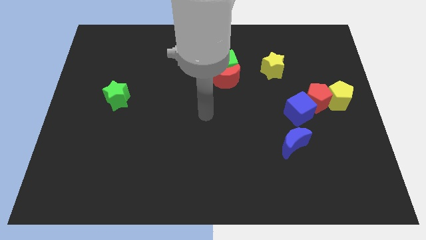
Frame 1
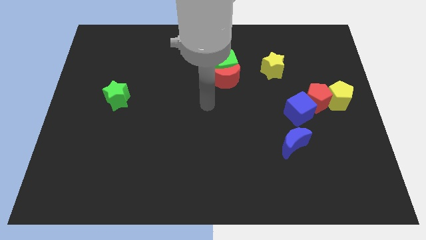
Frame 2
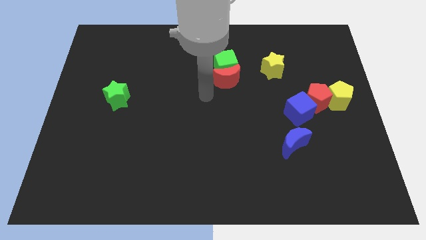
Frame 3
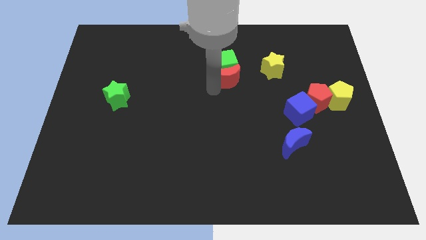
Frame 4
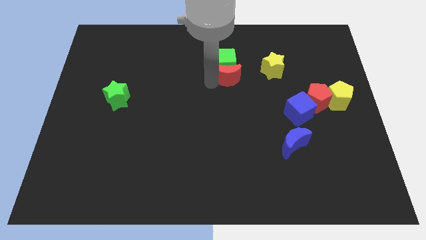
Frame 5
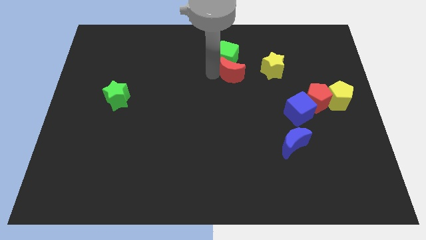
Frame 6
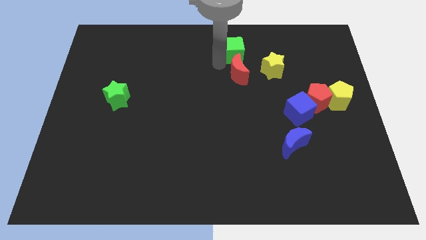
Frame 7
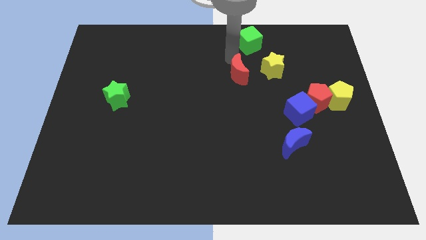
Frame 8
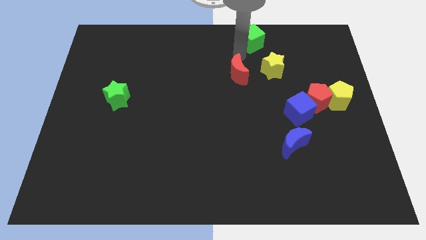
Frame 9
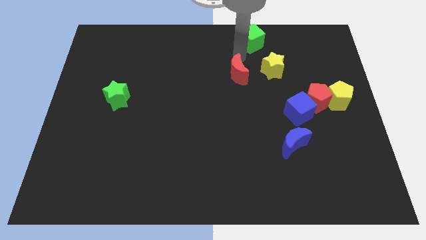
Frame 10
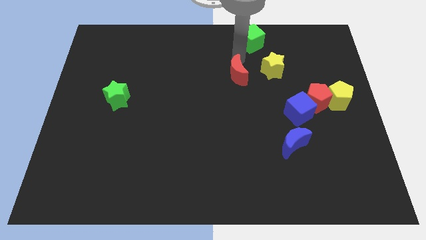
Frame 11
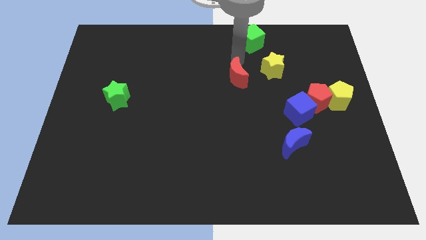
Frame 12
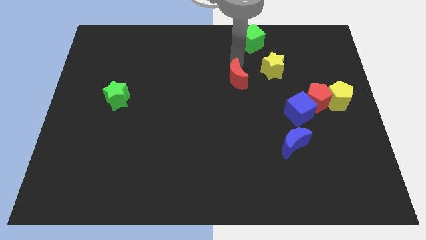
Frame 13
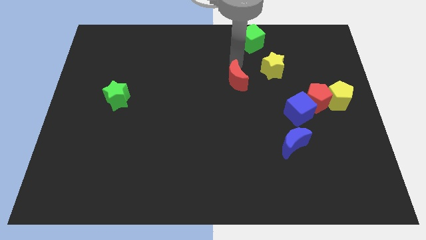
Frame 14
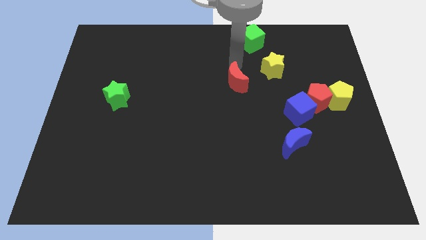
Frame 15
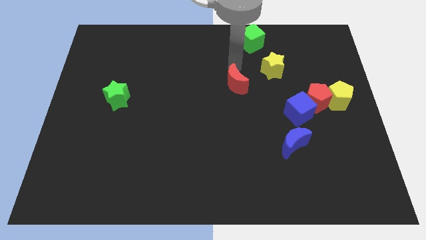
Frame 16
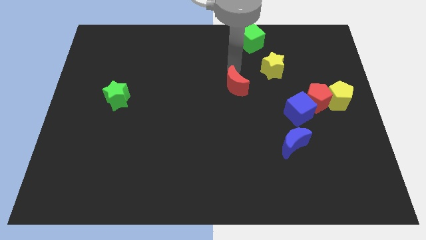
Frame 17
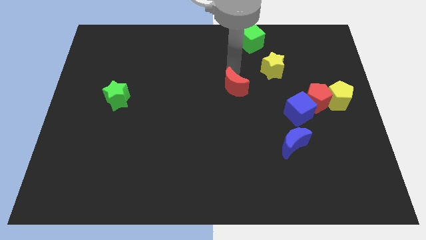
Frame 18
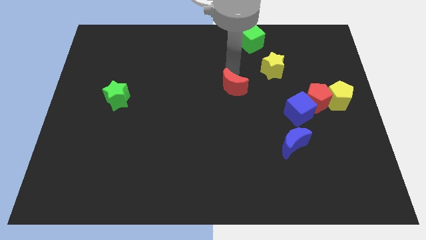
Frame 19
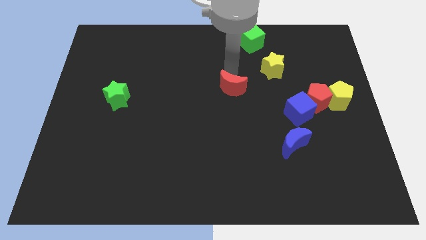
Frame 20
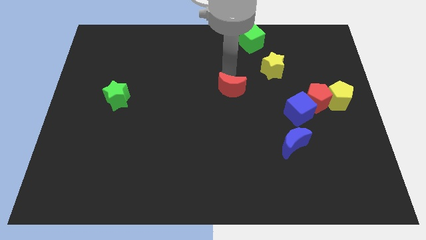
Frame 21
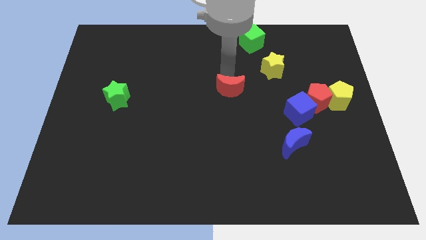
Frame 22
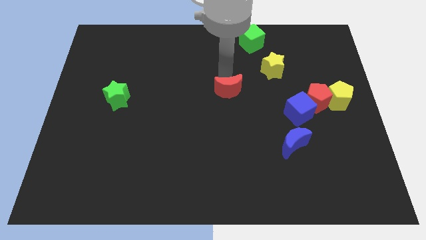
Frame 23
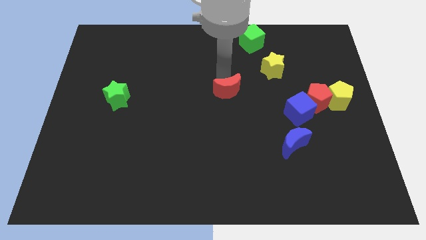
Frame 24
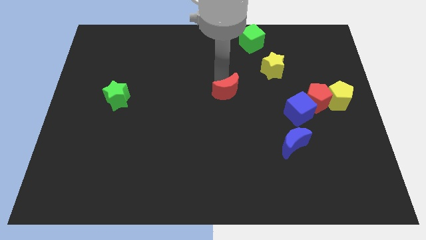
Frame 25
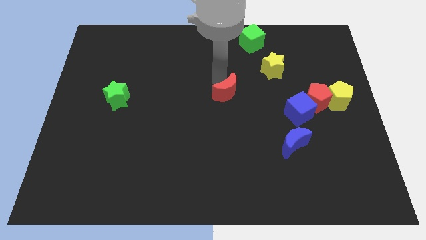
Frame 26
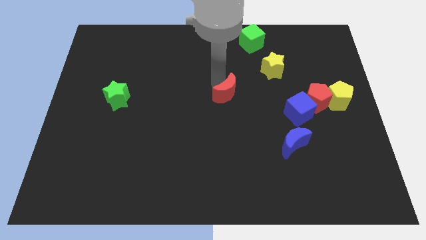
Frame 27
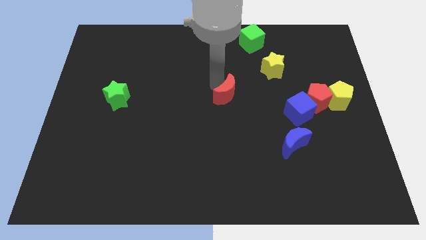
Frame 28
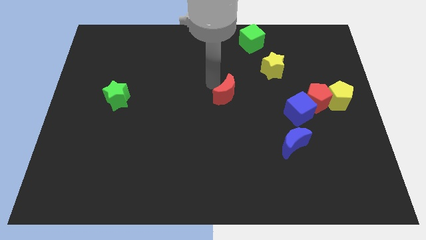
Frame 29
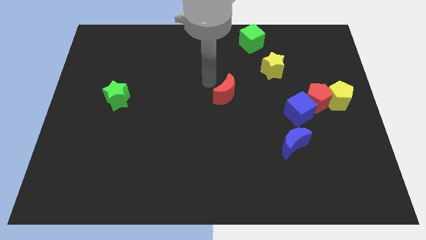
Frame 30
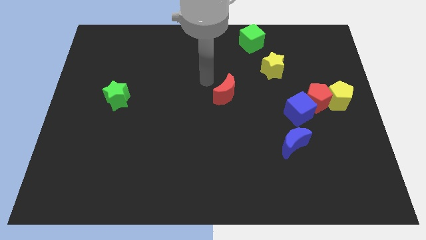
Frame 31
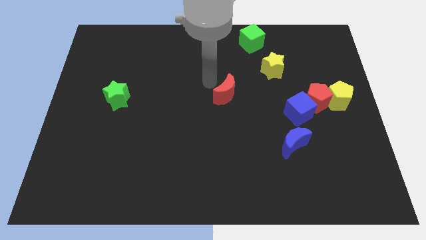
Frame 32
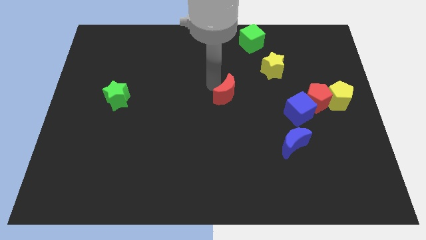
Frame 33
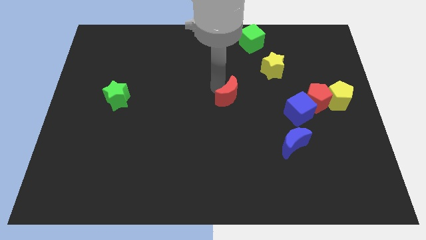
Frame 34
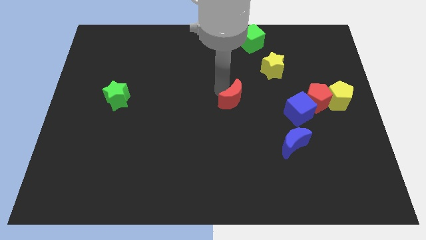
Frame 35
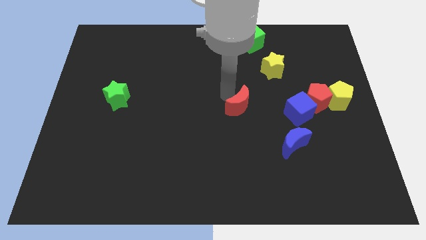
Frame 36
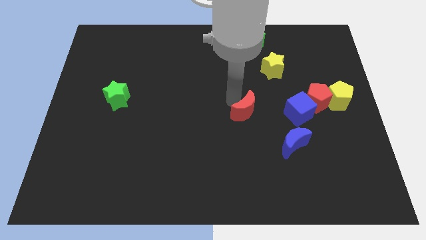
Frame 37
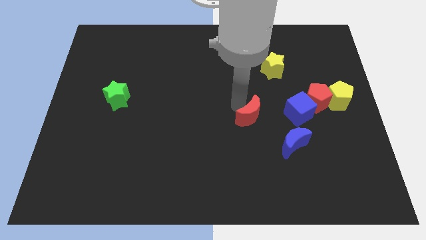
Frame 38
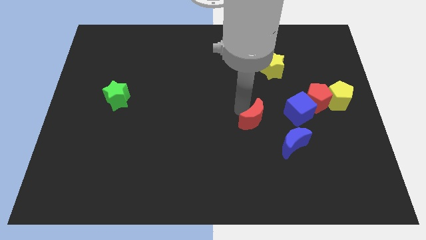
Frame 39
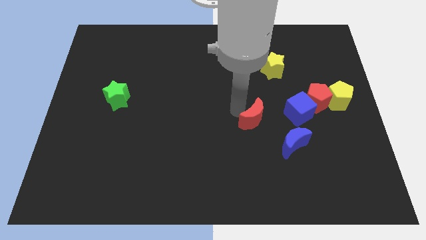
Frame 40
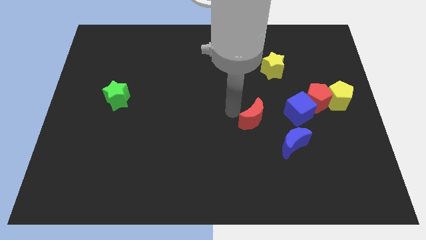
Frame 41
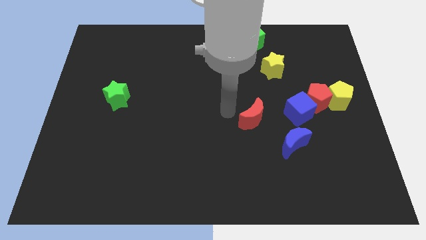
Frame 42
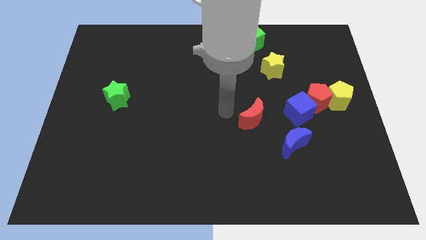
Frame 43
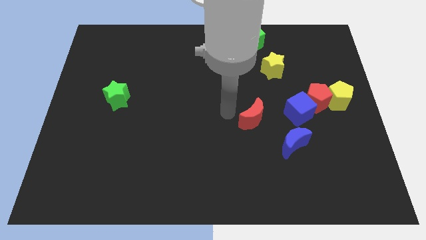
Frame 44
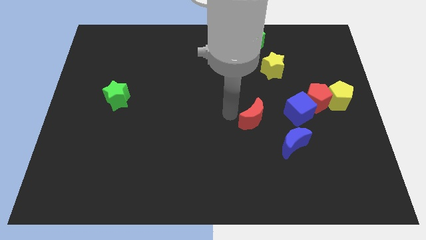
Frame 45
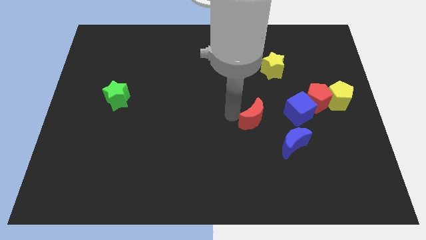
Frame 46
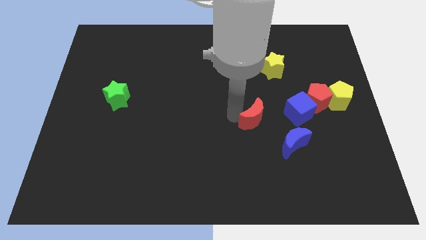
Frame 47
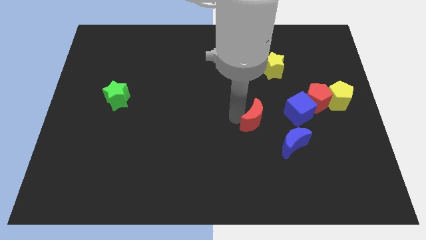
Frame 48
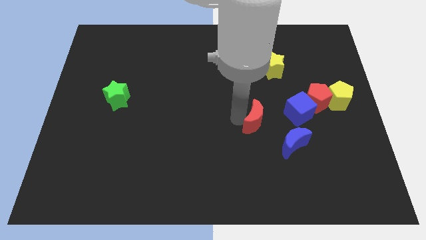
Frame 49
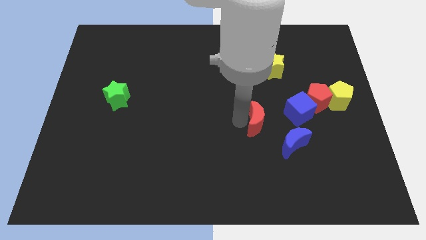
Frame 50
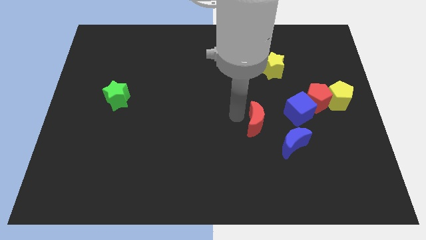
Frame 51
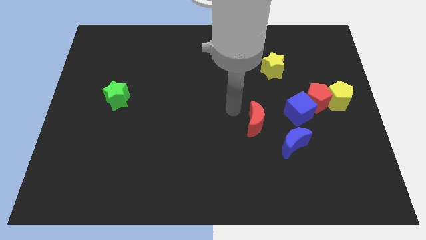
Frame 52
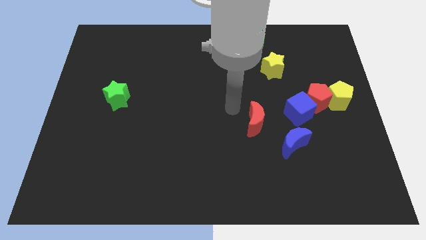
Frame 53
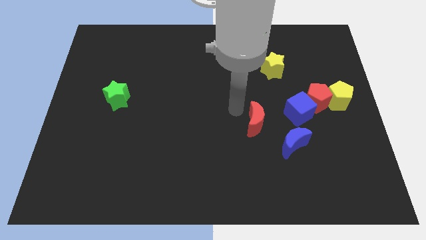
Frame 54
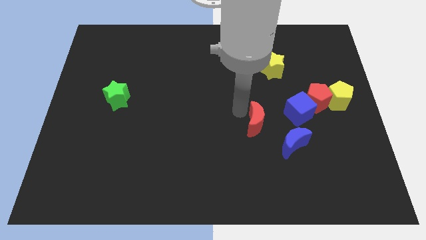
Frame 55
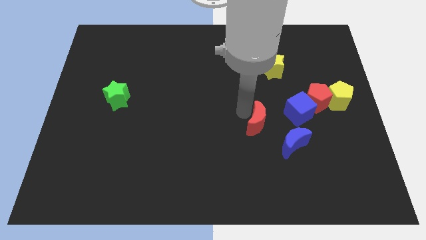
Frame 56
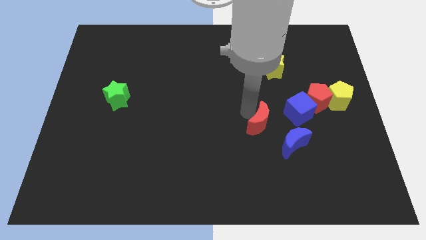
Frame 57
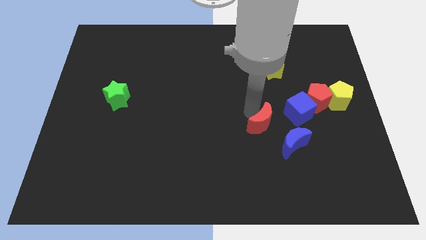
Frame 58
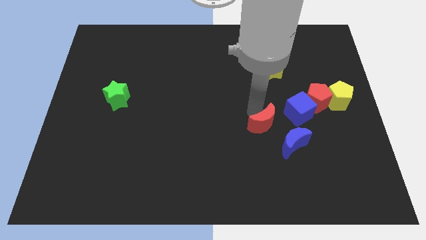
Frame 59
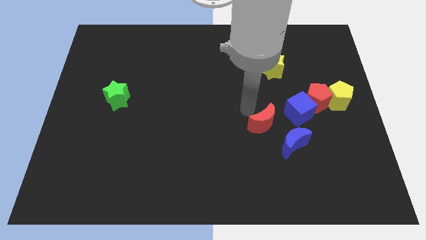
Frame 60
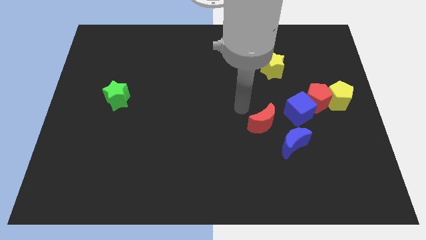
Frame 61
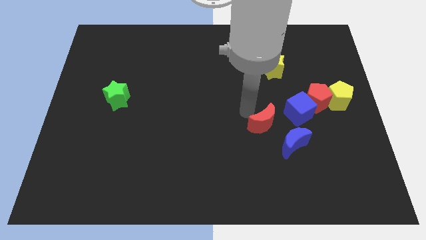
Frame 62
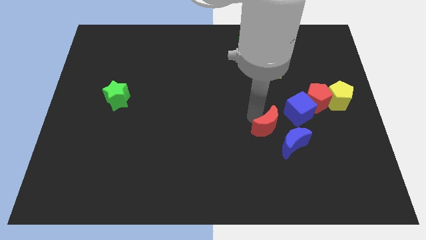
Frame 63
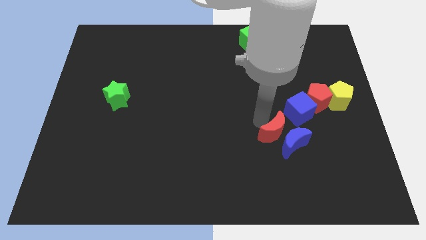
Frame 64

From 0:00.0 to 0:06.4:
move the red moon to the blue moon
